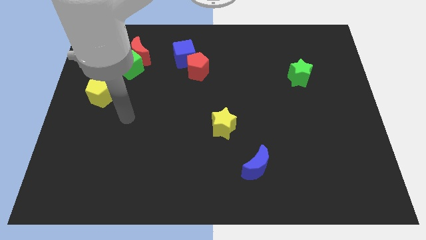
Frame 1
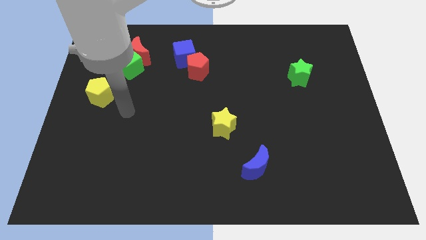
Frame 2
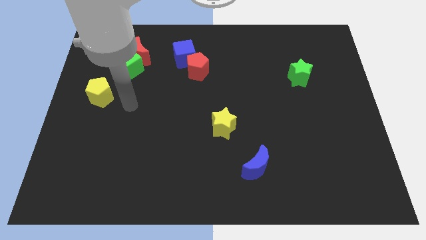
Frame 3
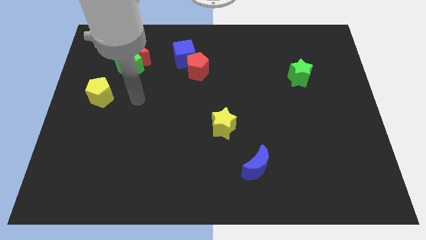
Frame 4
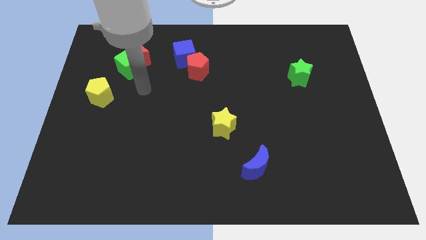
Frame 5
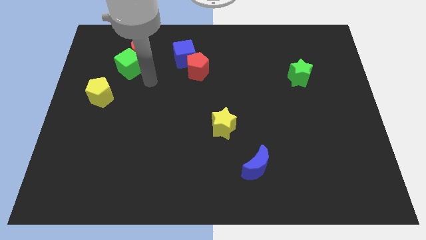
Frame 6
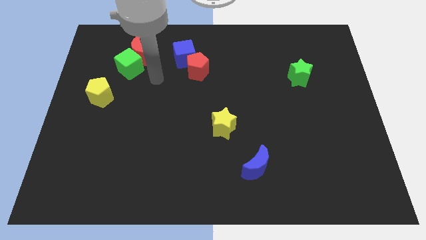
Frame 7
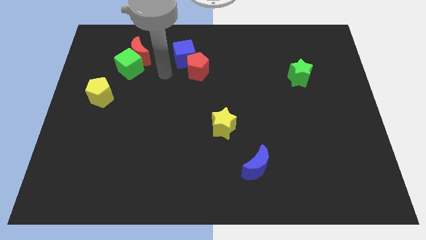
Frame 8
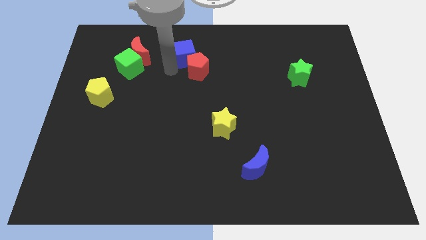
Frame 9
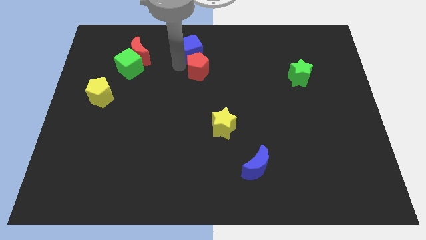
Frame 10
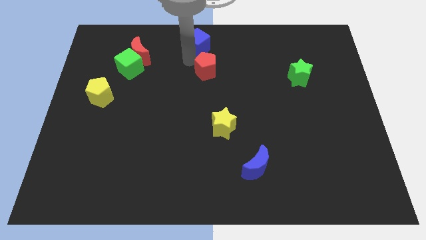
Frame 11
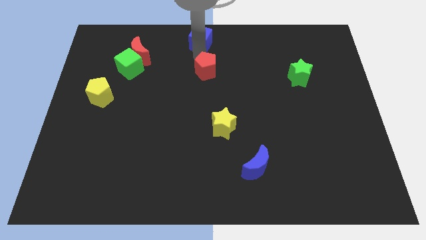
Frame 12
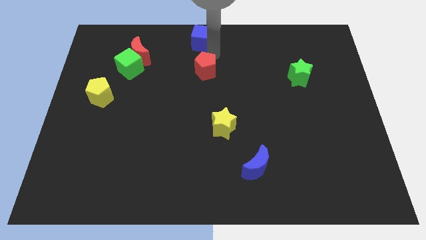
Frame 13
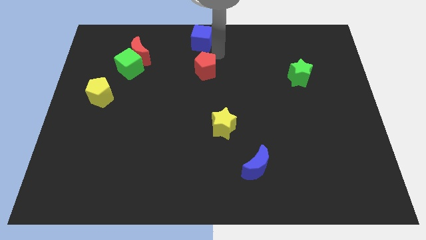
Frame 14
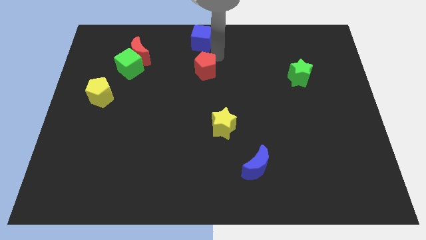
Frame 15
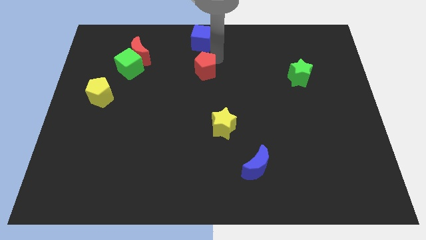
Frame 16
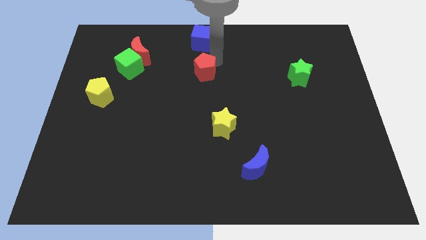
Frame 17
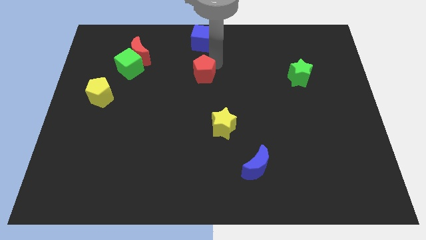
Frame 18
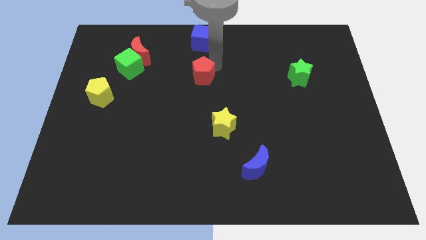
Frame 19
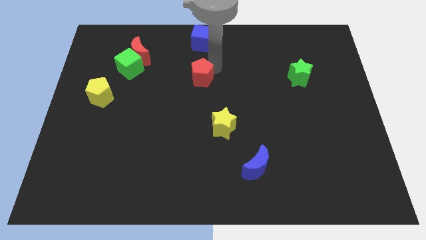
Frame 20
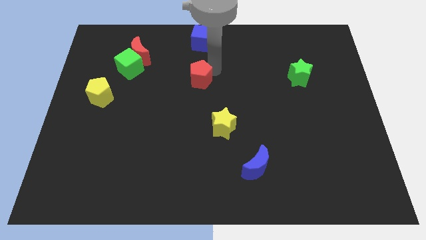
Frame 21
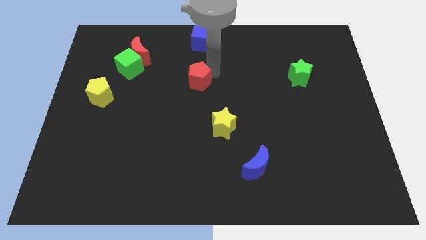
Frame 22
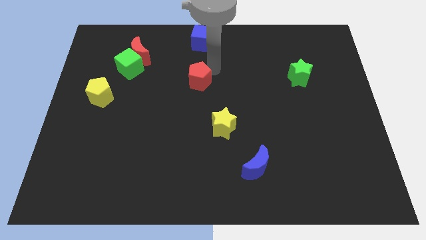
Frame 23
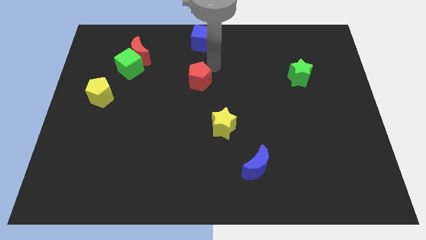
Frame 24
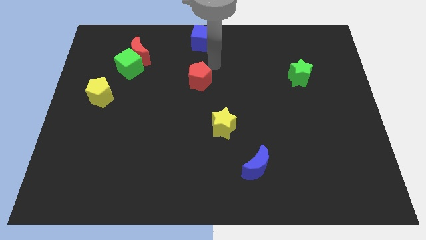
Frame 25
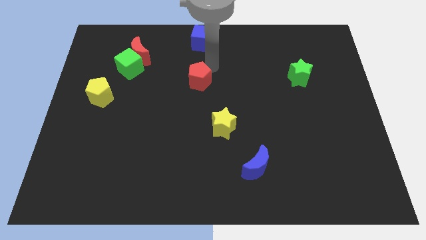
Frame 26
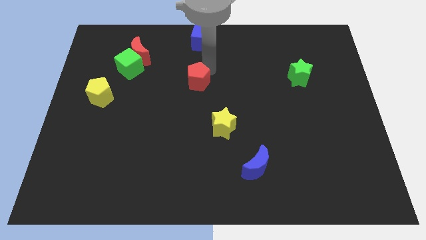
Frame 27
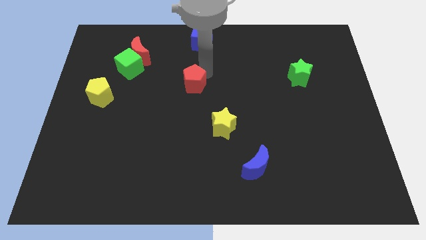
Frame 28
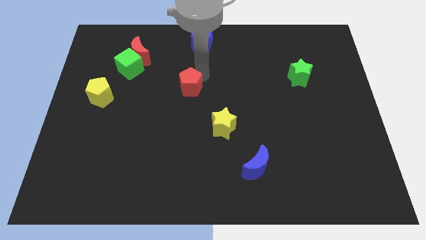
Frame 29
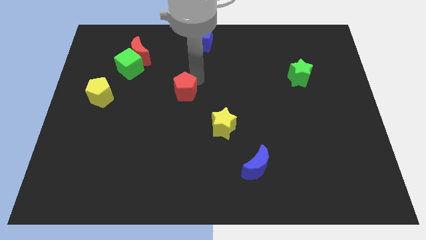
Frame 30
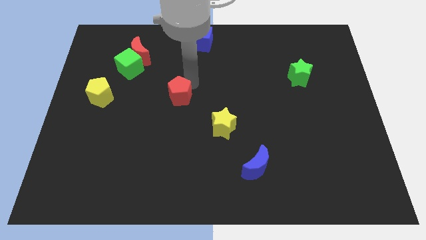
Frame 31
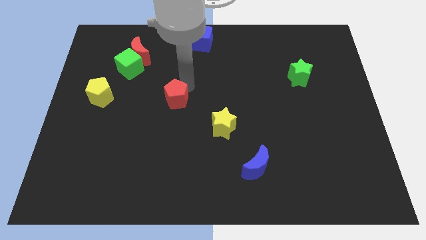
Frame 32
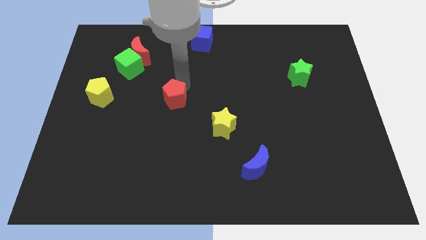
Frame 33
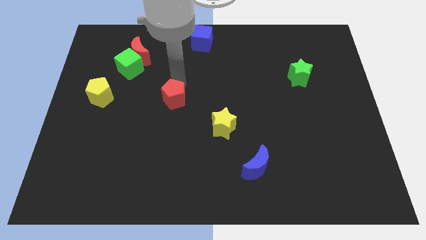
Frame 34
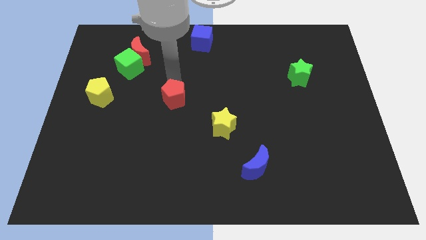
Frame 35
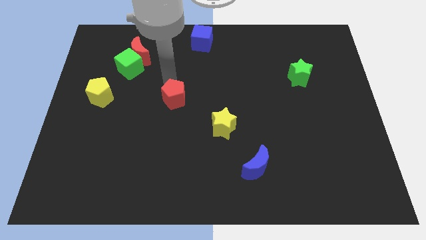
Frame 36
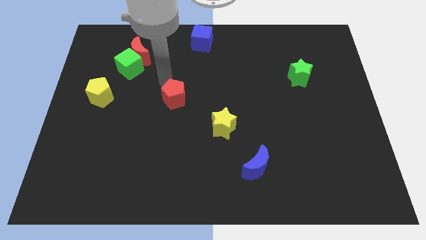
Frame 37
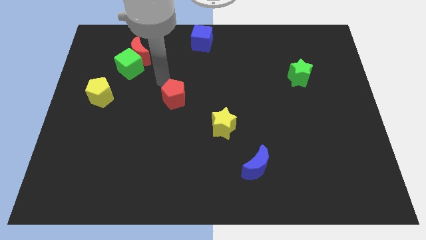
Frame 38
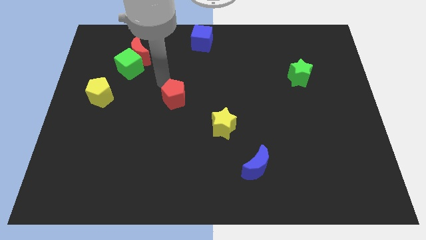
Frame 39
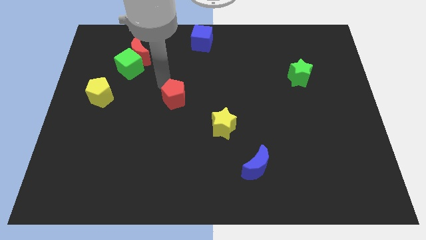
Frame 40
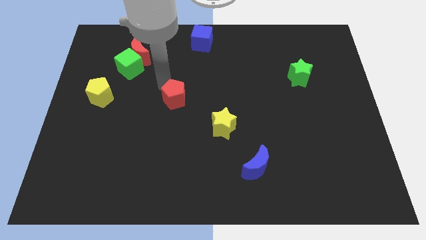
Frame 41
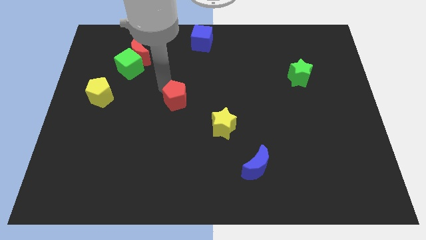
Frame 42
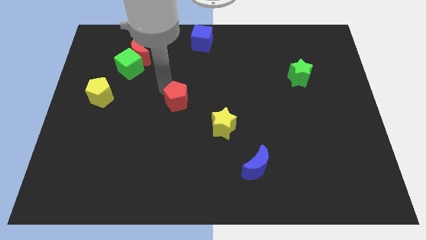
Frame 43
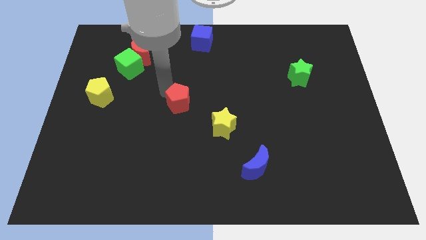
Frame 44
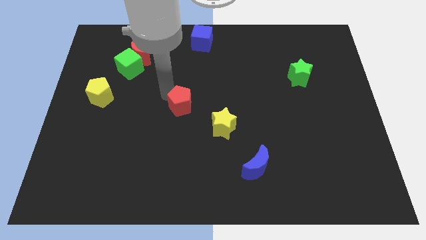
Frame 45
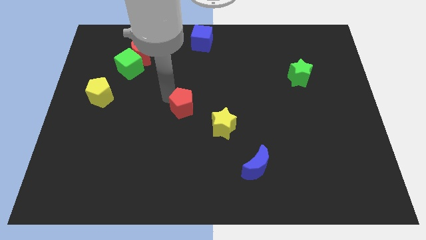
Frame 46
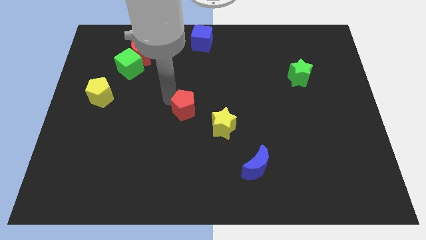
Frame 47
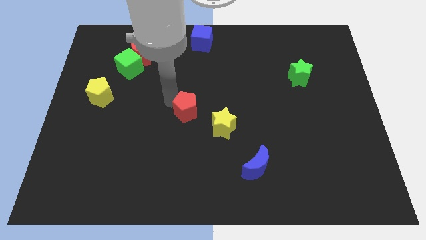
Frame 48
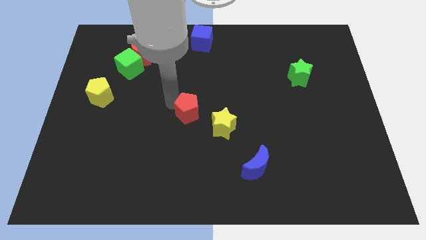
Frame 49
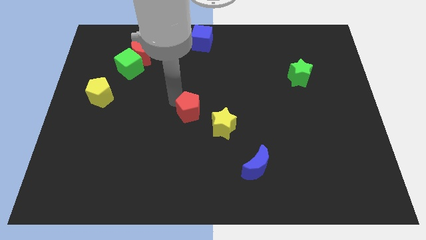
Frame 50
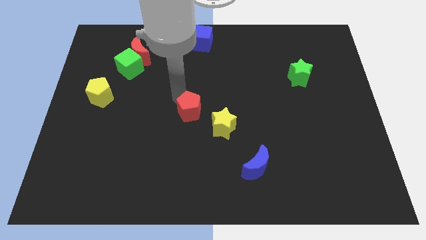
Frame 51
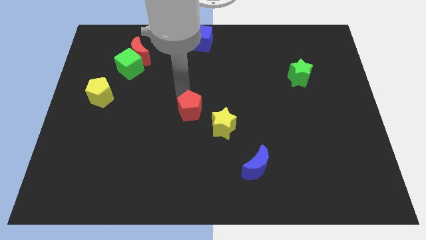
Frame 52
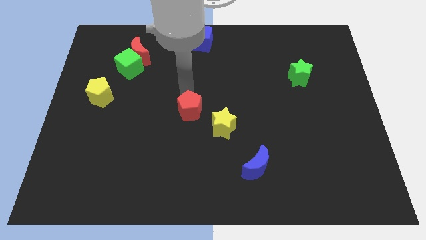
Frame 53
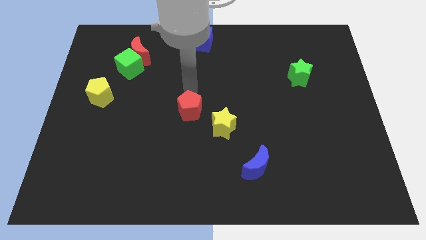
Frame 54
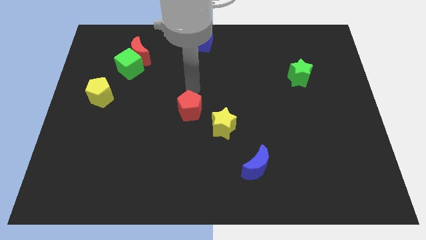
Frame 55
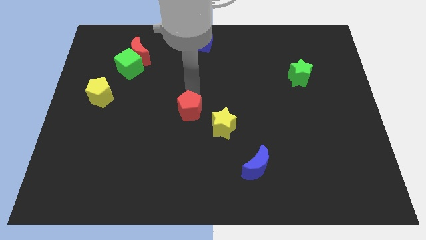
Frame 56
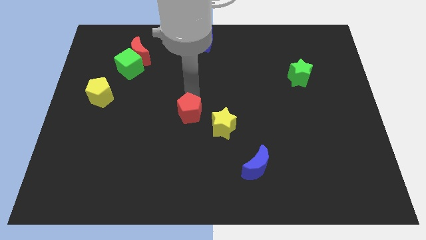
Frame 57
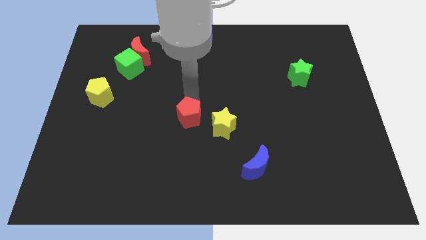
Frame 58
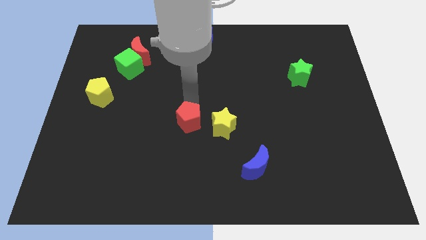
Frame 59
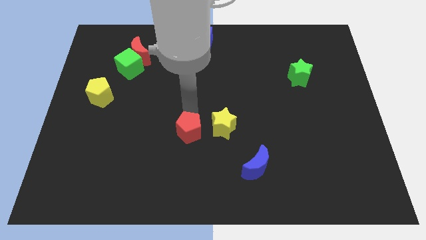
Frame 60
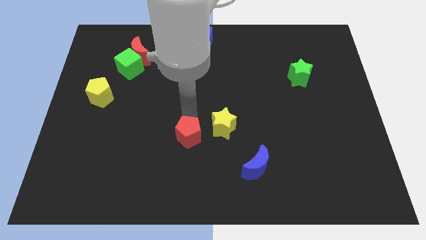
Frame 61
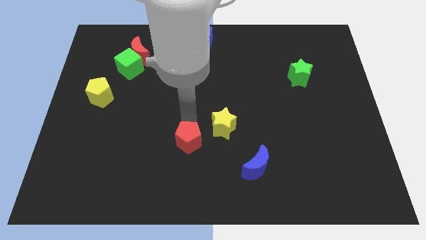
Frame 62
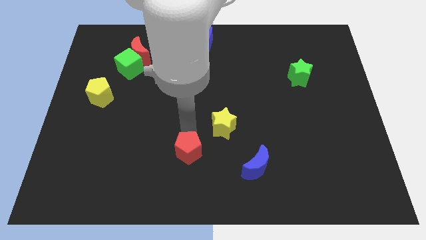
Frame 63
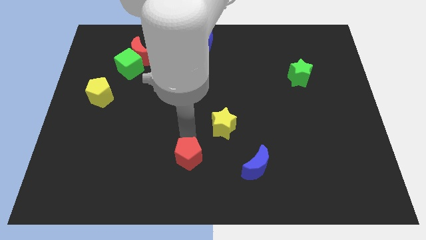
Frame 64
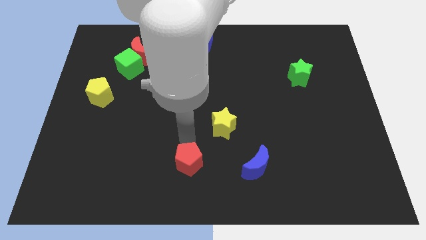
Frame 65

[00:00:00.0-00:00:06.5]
push the red pentagon to the bottom side

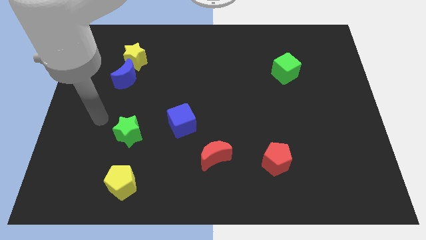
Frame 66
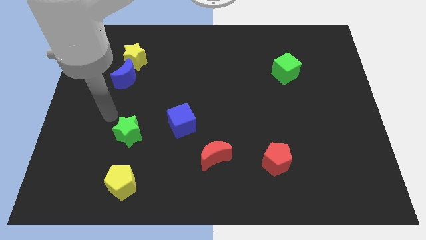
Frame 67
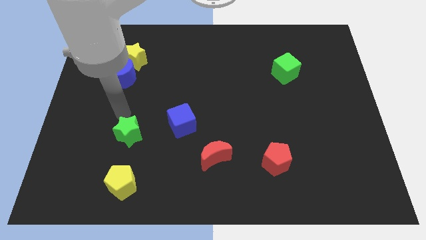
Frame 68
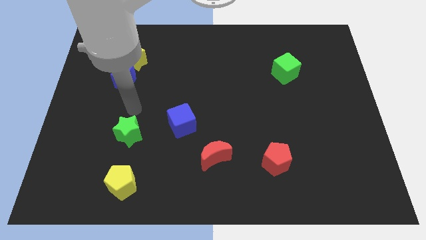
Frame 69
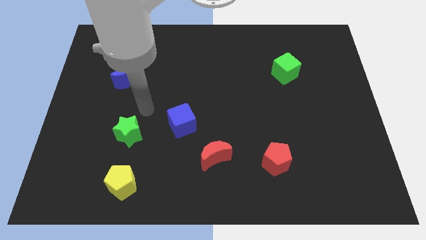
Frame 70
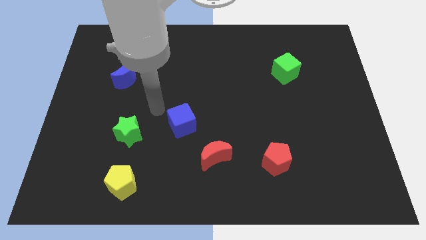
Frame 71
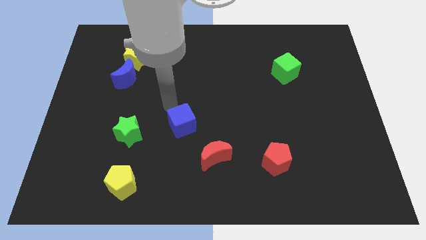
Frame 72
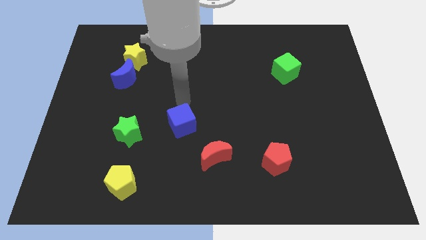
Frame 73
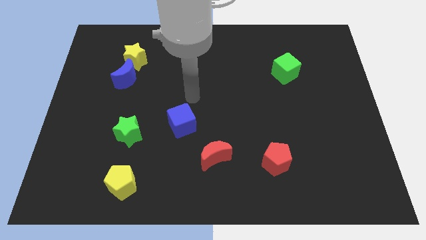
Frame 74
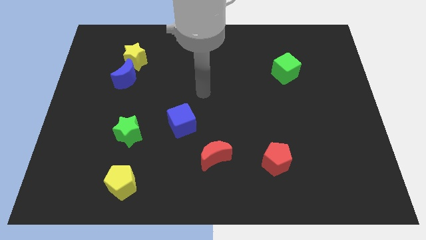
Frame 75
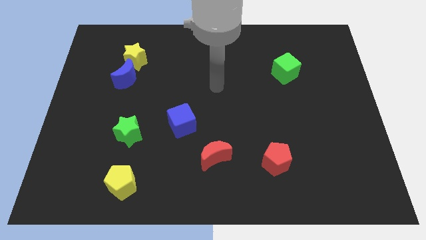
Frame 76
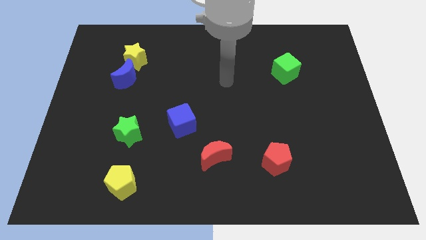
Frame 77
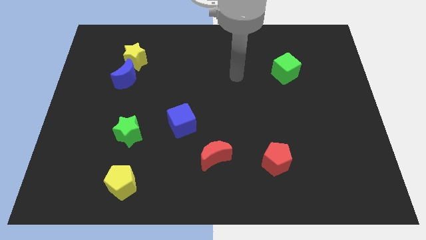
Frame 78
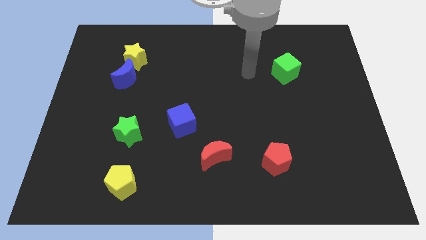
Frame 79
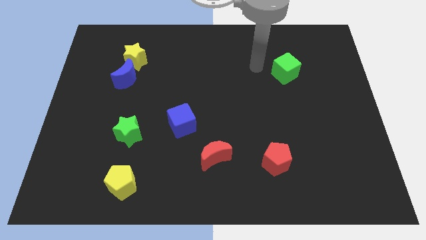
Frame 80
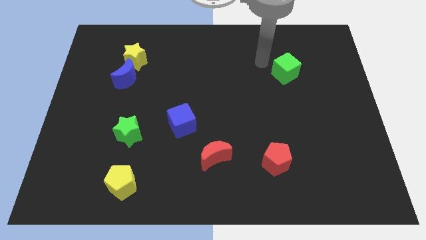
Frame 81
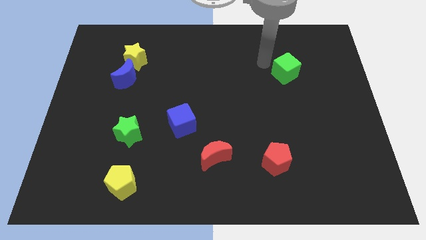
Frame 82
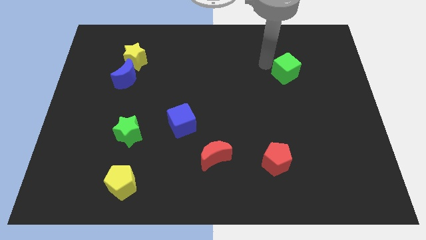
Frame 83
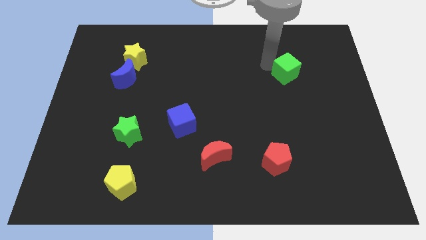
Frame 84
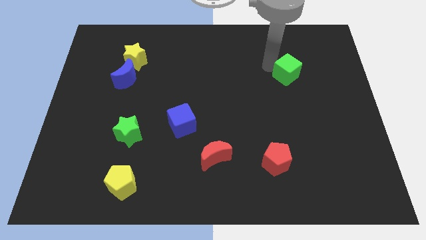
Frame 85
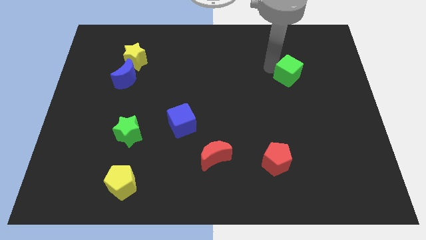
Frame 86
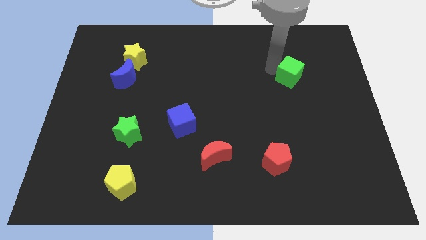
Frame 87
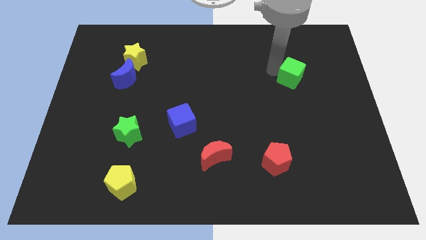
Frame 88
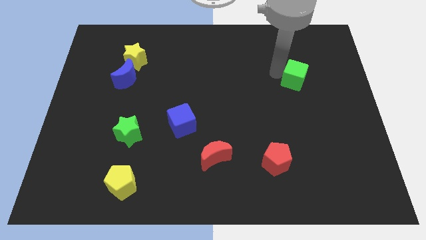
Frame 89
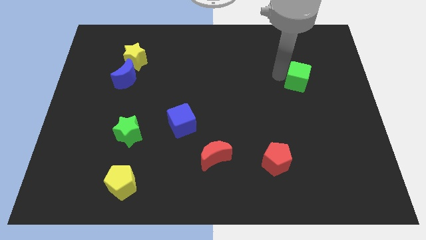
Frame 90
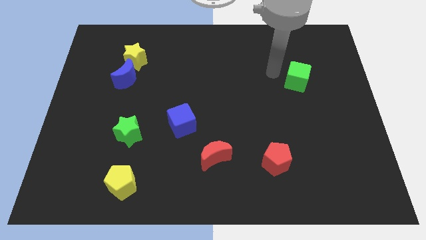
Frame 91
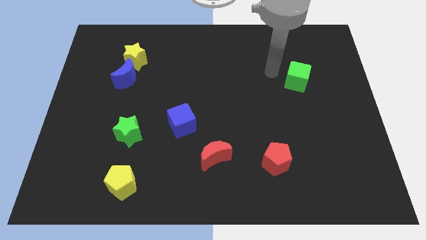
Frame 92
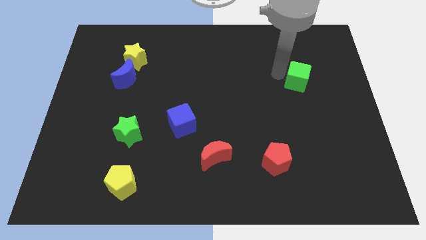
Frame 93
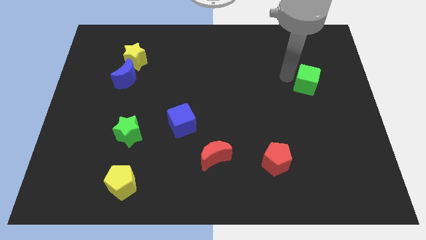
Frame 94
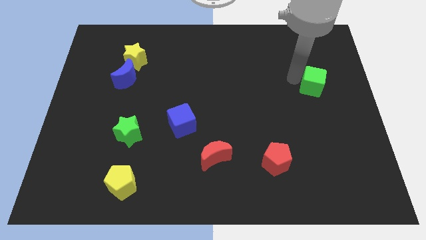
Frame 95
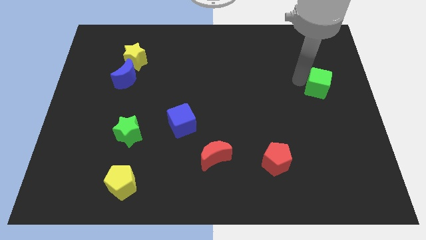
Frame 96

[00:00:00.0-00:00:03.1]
slide the green cube to the right side of the board
